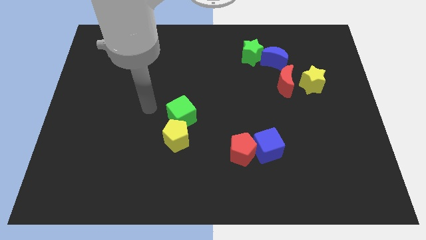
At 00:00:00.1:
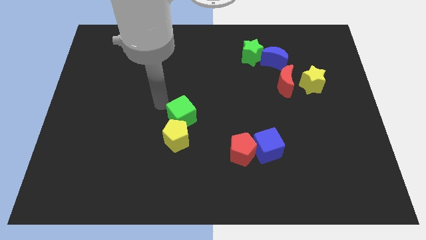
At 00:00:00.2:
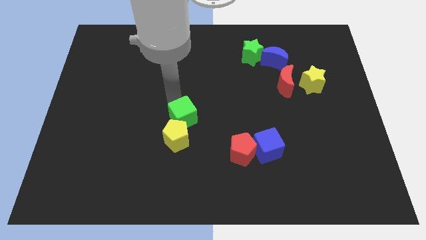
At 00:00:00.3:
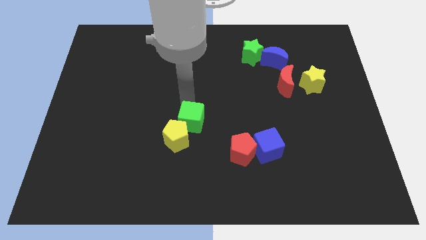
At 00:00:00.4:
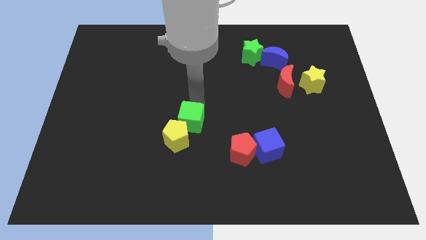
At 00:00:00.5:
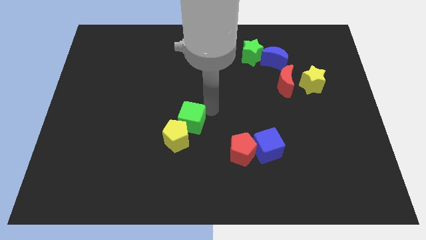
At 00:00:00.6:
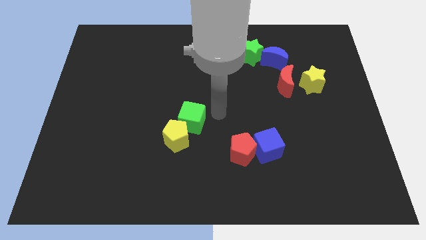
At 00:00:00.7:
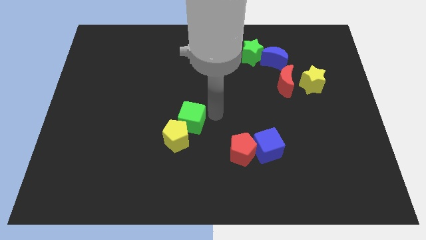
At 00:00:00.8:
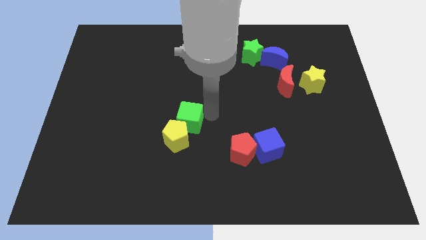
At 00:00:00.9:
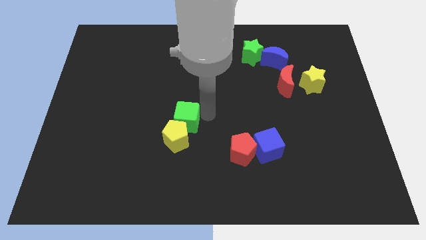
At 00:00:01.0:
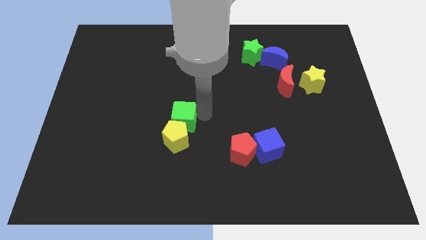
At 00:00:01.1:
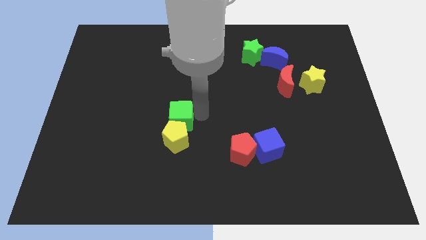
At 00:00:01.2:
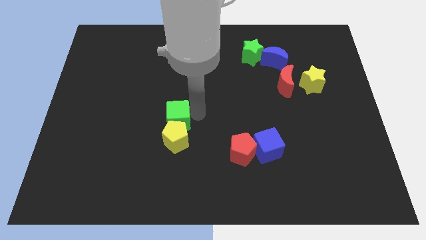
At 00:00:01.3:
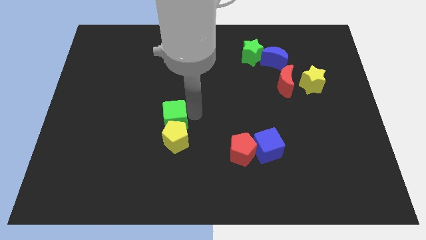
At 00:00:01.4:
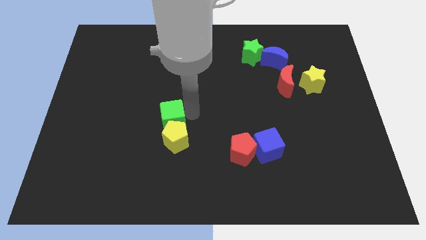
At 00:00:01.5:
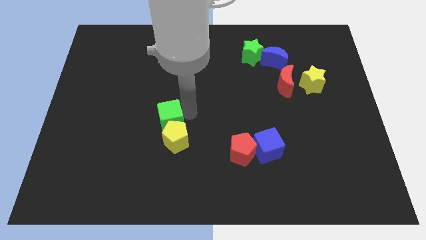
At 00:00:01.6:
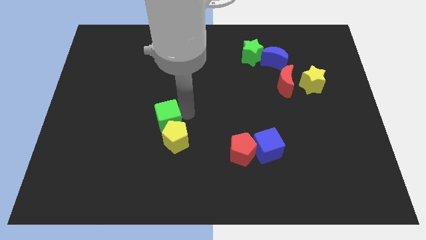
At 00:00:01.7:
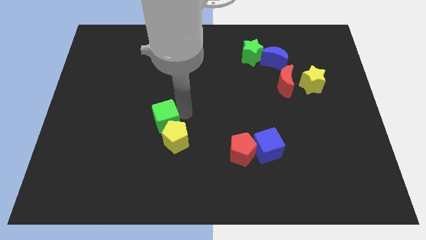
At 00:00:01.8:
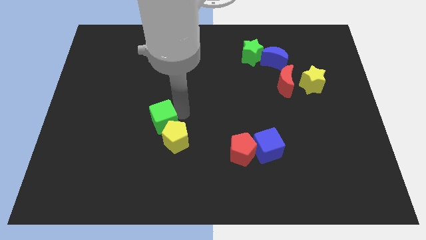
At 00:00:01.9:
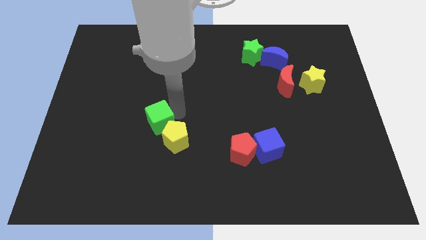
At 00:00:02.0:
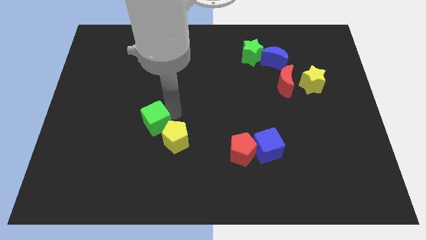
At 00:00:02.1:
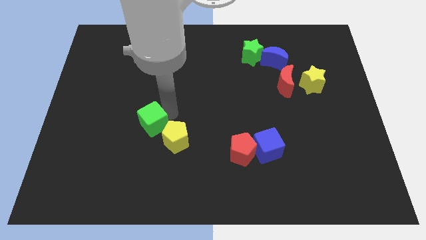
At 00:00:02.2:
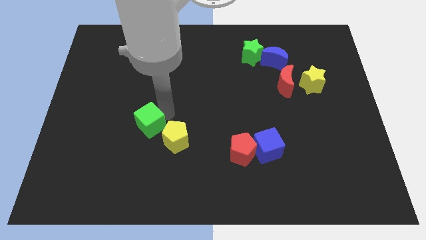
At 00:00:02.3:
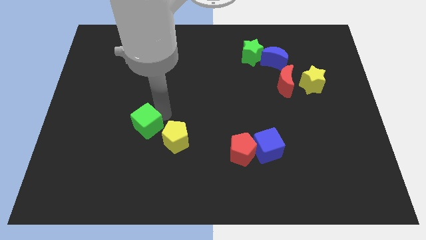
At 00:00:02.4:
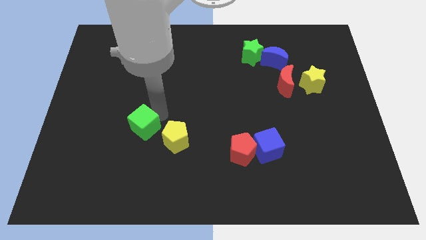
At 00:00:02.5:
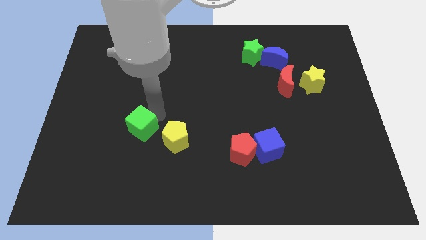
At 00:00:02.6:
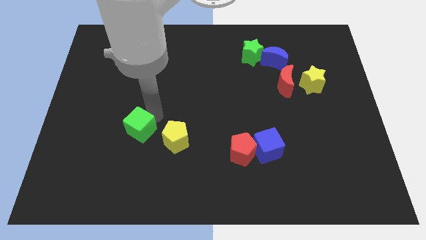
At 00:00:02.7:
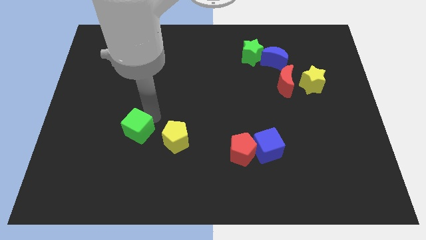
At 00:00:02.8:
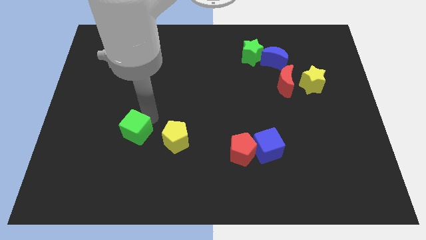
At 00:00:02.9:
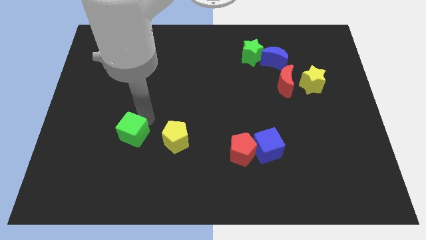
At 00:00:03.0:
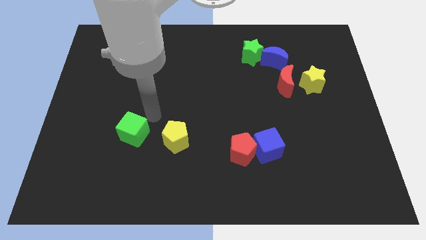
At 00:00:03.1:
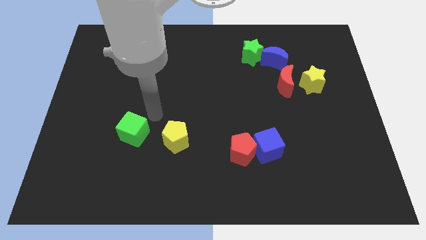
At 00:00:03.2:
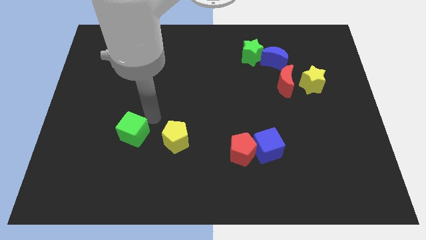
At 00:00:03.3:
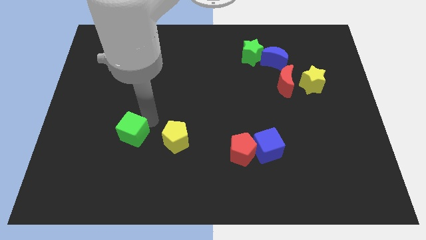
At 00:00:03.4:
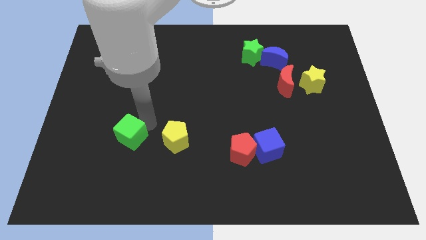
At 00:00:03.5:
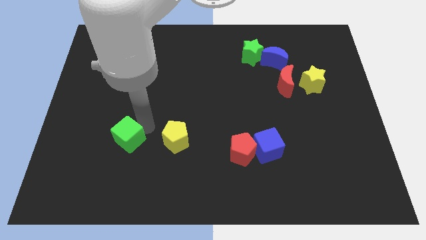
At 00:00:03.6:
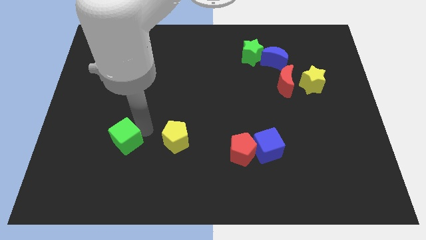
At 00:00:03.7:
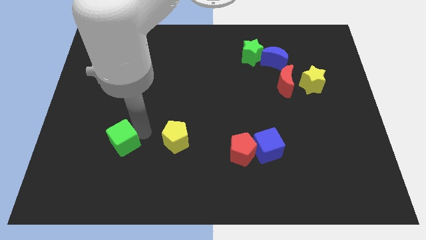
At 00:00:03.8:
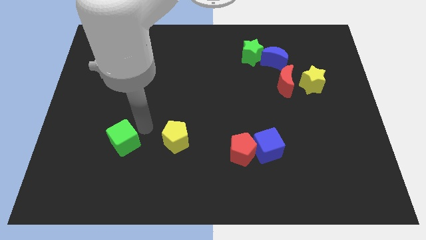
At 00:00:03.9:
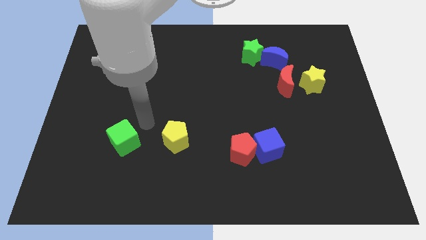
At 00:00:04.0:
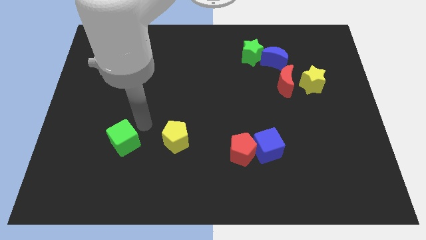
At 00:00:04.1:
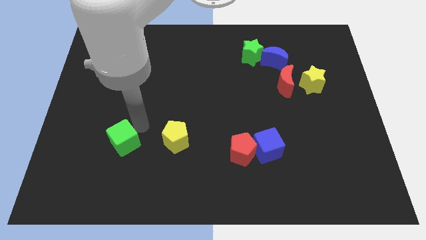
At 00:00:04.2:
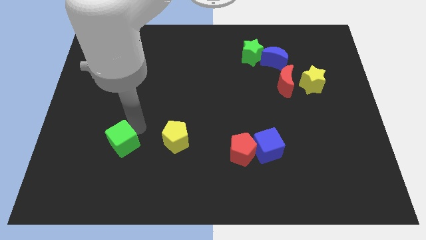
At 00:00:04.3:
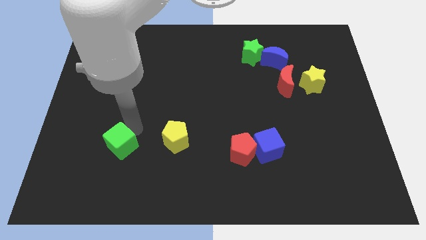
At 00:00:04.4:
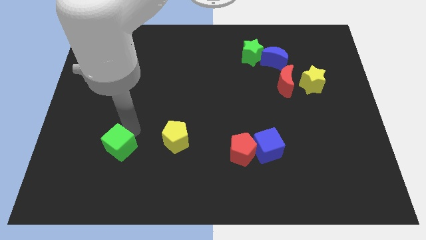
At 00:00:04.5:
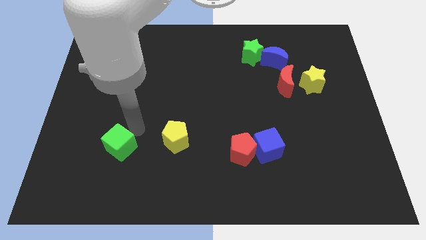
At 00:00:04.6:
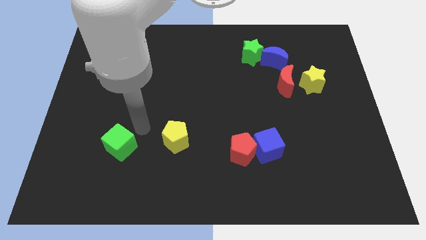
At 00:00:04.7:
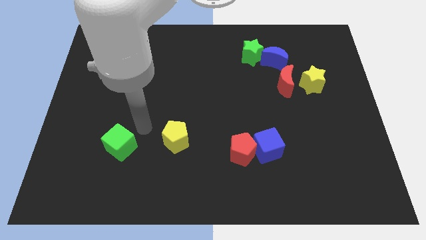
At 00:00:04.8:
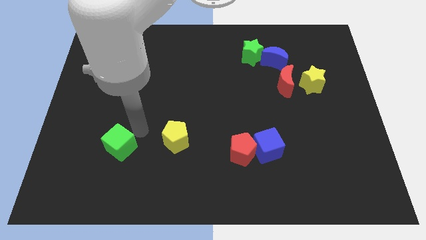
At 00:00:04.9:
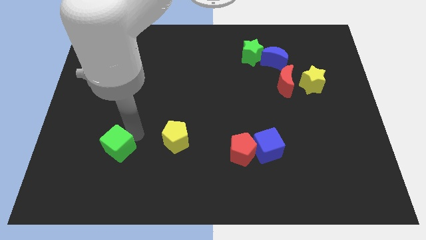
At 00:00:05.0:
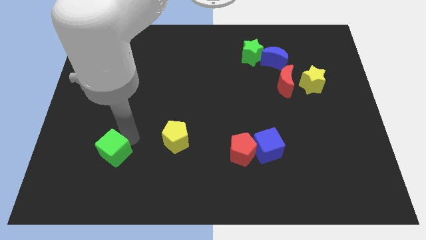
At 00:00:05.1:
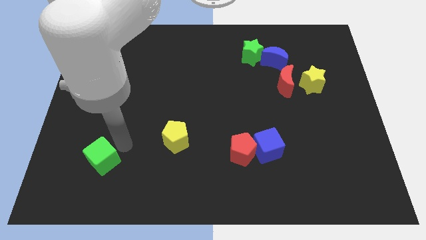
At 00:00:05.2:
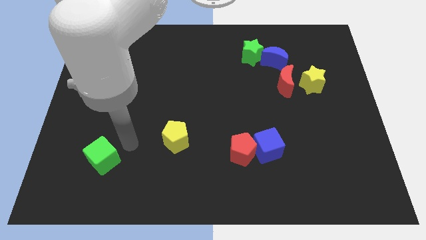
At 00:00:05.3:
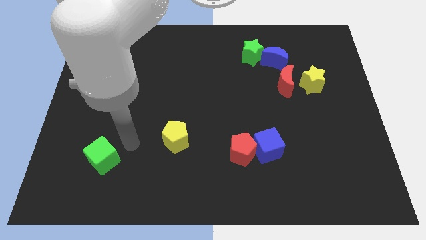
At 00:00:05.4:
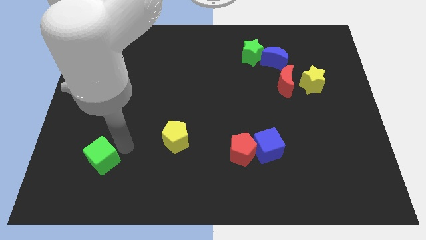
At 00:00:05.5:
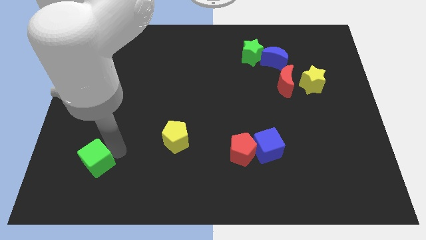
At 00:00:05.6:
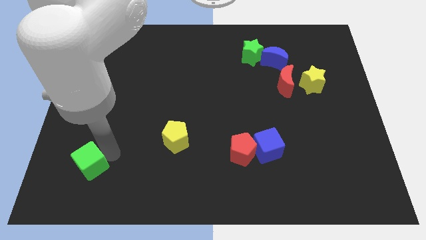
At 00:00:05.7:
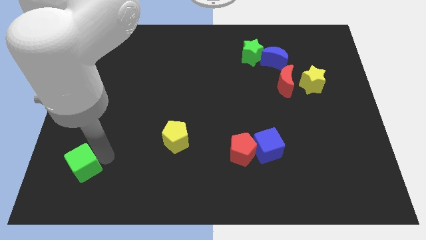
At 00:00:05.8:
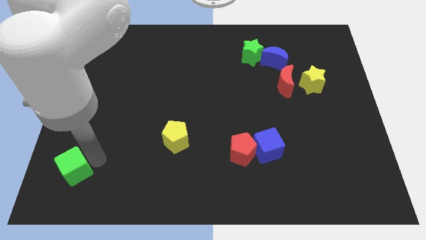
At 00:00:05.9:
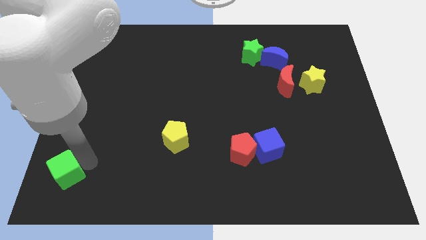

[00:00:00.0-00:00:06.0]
put the green cube to the bottom left of the board
